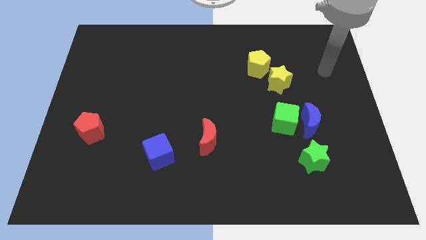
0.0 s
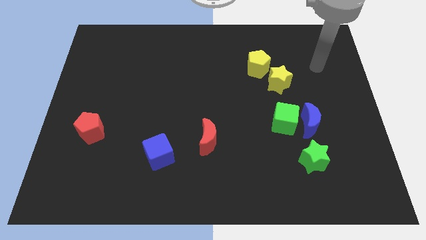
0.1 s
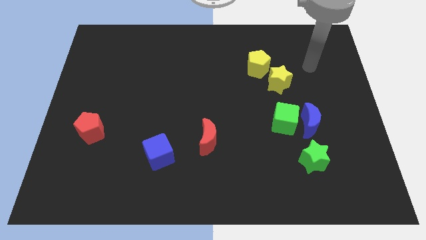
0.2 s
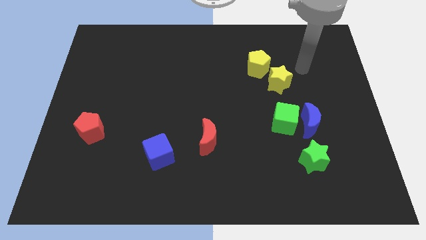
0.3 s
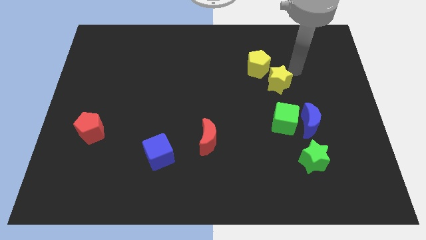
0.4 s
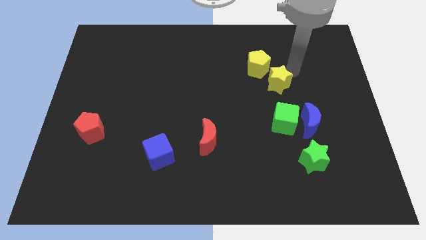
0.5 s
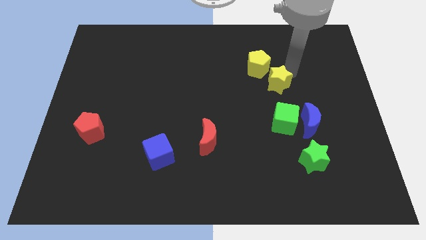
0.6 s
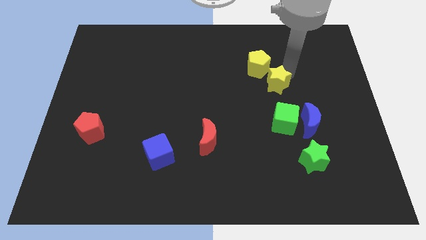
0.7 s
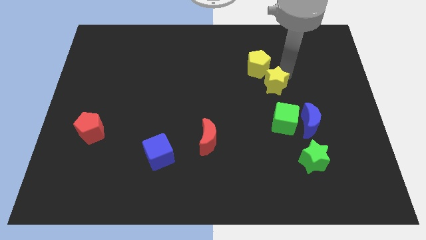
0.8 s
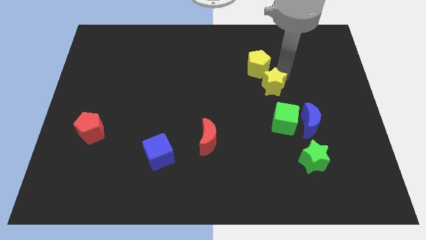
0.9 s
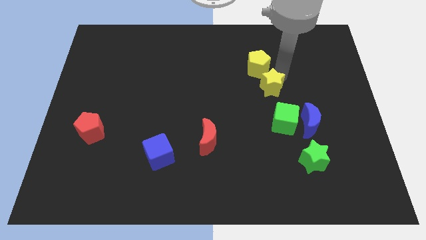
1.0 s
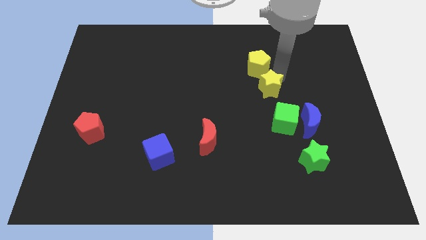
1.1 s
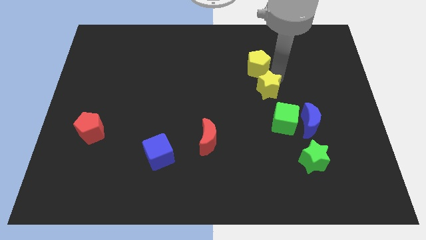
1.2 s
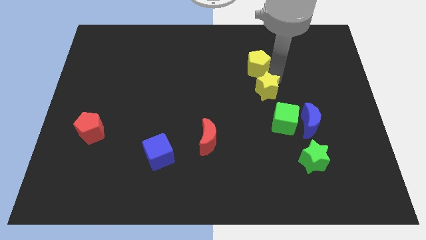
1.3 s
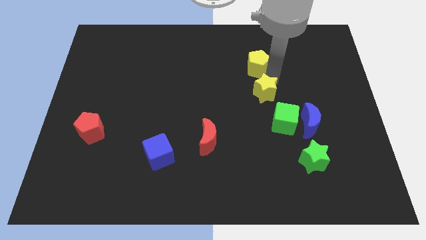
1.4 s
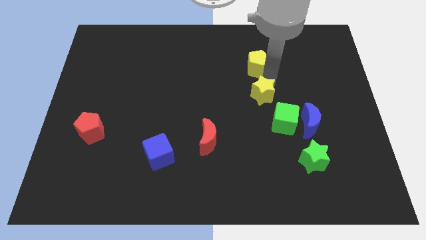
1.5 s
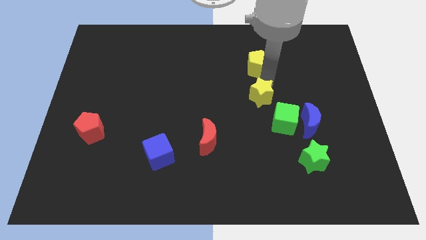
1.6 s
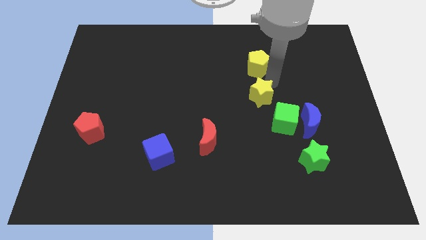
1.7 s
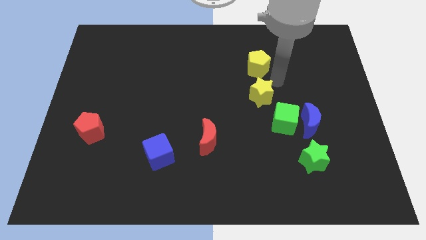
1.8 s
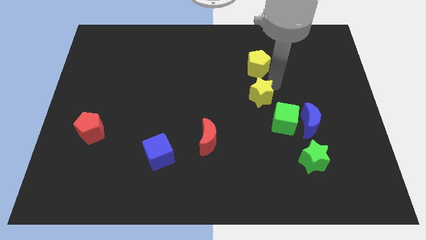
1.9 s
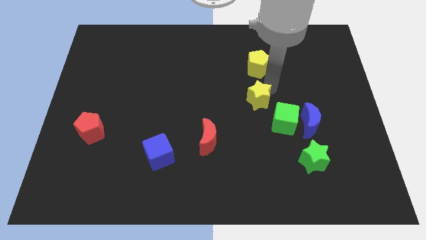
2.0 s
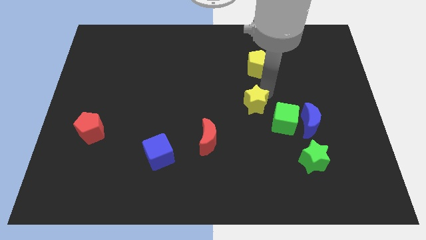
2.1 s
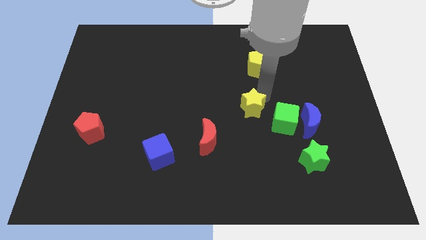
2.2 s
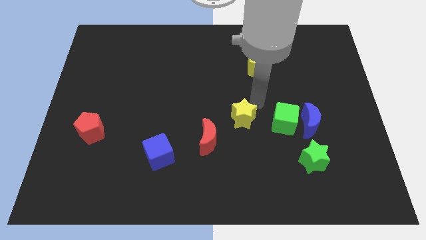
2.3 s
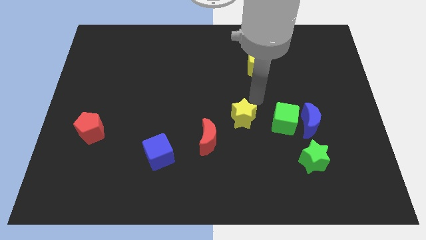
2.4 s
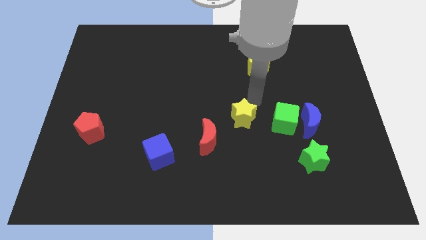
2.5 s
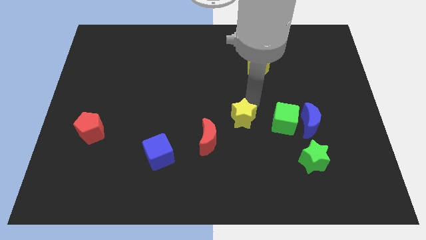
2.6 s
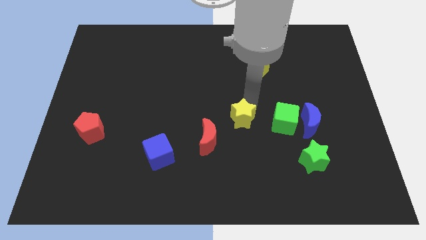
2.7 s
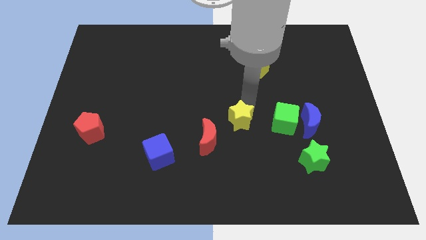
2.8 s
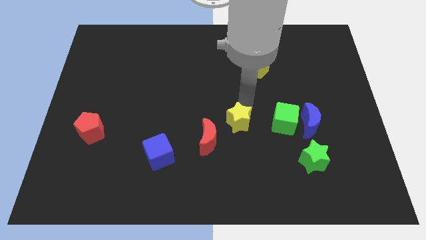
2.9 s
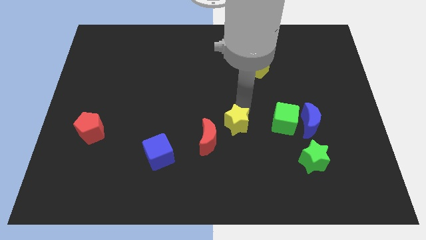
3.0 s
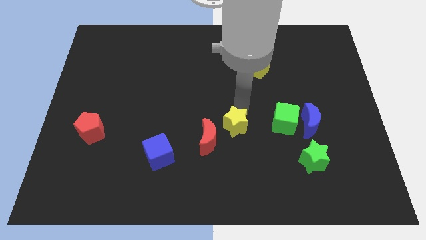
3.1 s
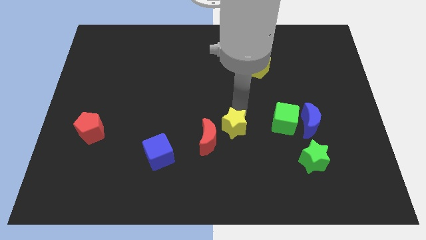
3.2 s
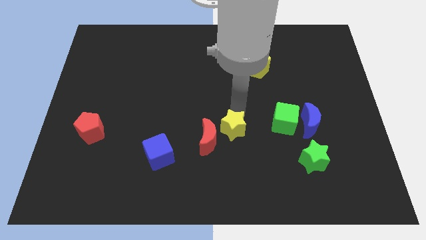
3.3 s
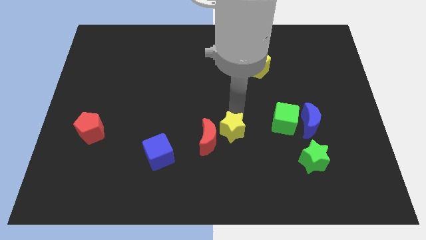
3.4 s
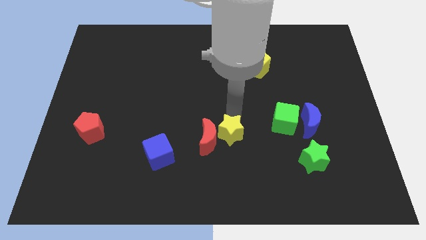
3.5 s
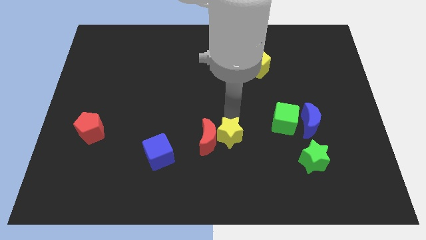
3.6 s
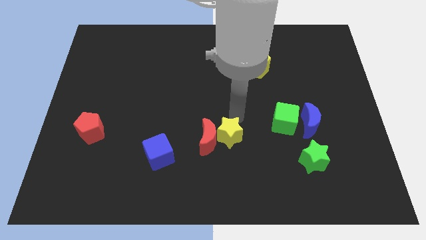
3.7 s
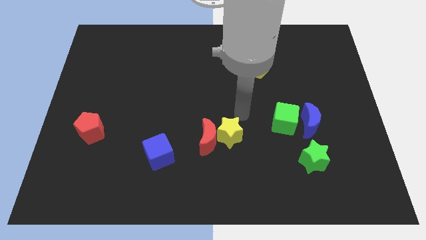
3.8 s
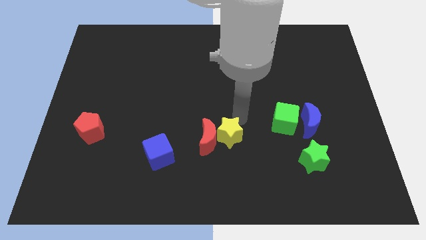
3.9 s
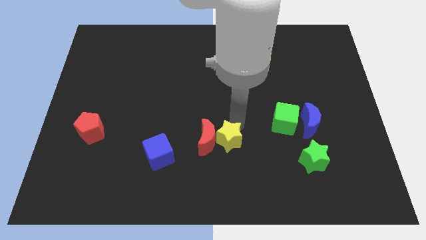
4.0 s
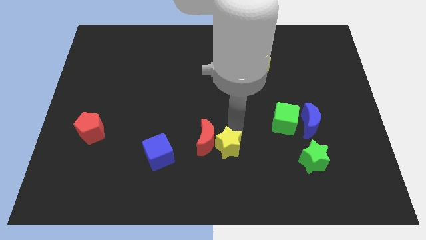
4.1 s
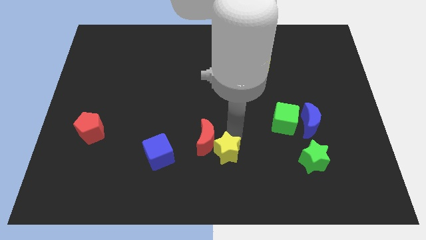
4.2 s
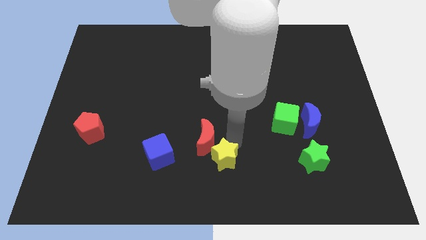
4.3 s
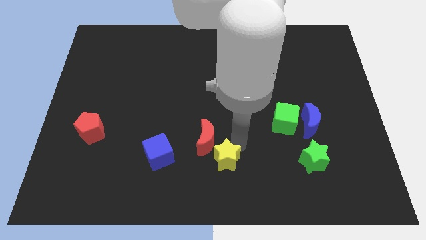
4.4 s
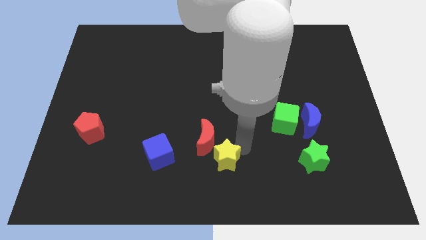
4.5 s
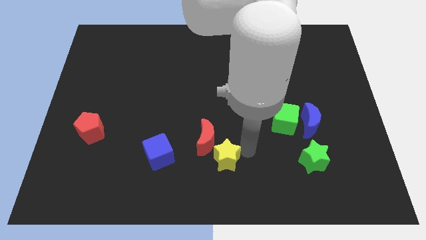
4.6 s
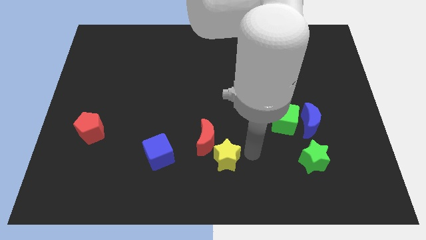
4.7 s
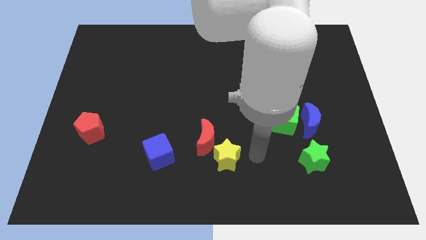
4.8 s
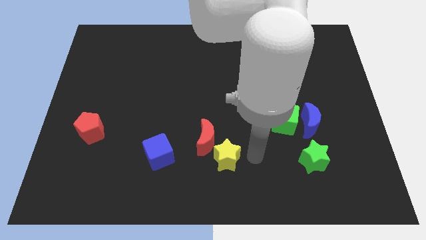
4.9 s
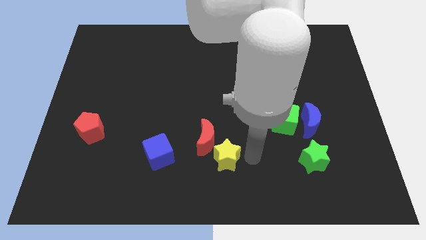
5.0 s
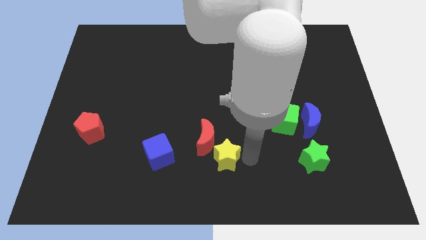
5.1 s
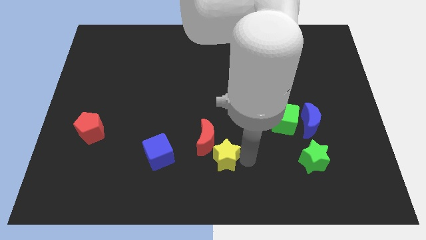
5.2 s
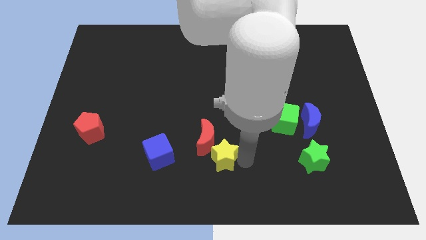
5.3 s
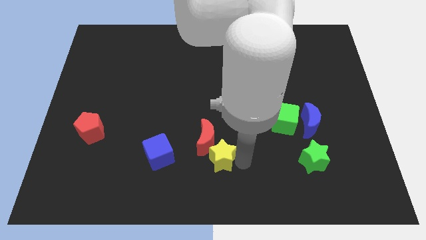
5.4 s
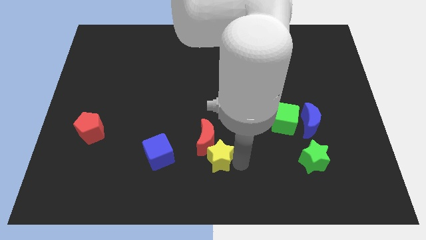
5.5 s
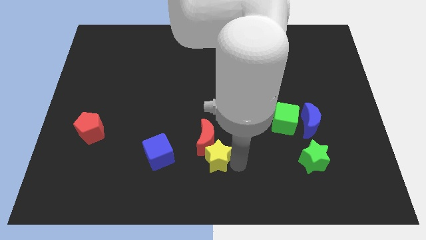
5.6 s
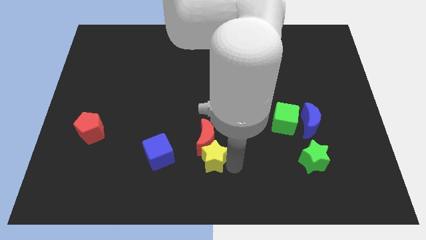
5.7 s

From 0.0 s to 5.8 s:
push the yellow star diagonally down and to the left of the red moon

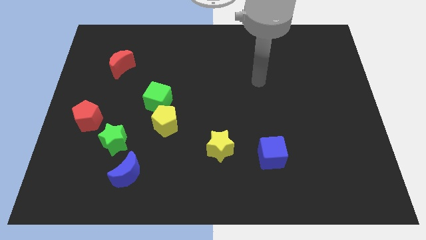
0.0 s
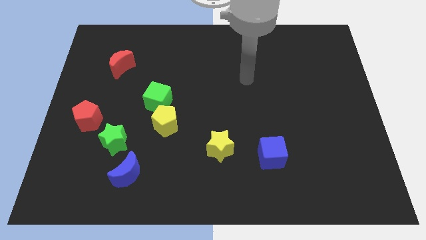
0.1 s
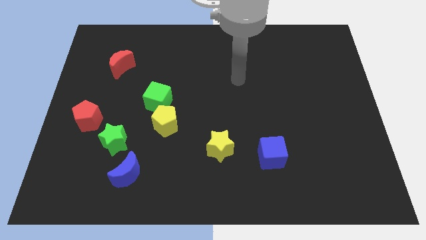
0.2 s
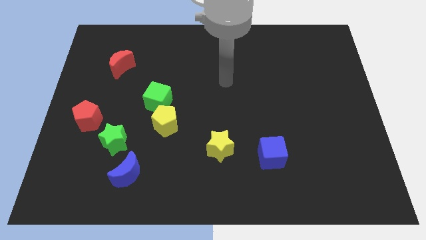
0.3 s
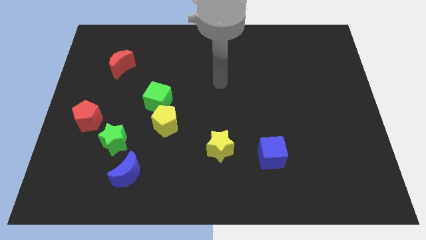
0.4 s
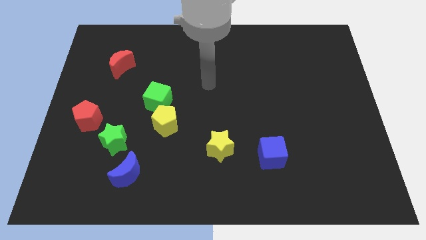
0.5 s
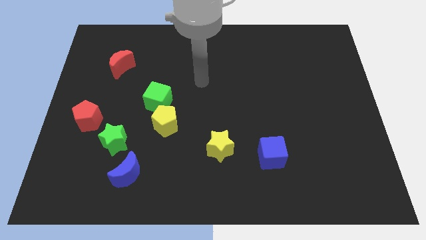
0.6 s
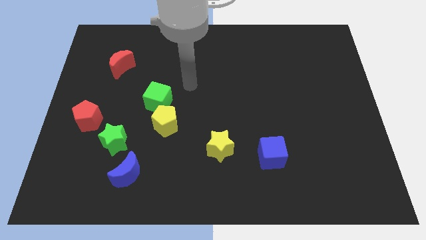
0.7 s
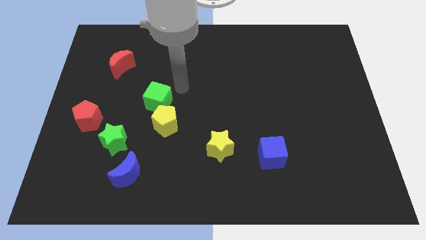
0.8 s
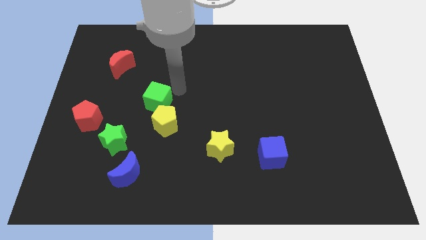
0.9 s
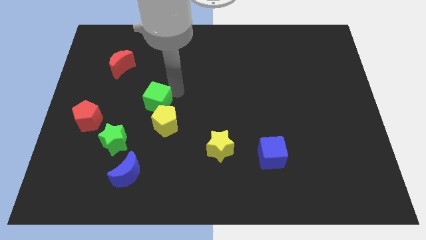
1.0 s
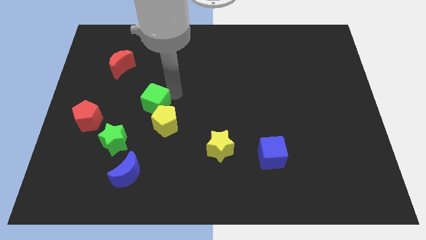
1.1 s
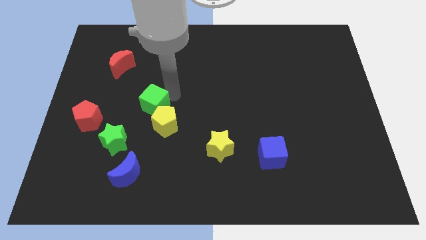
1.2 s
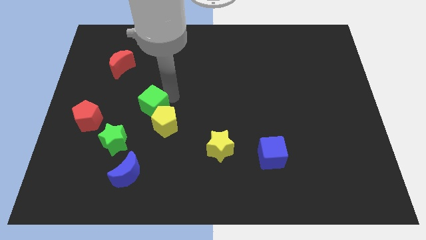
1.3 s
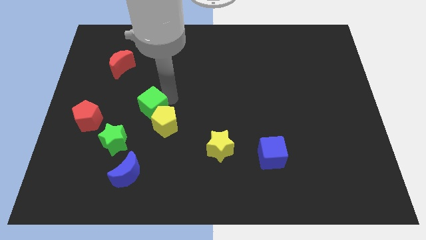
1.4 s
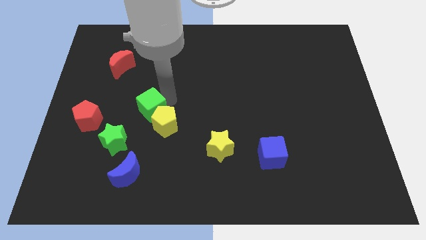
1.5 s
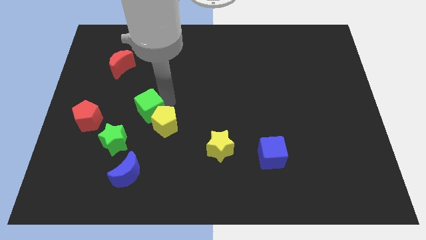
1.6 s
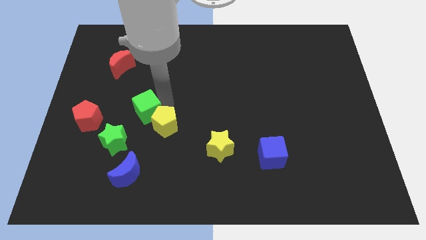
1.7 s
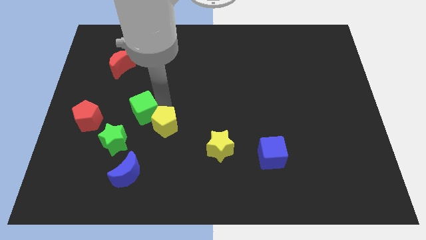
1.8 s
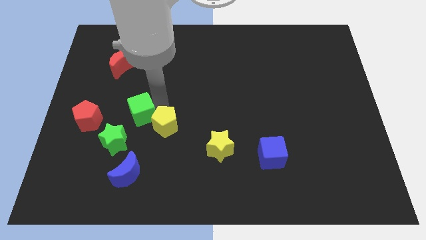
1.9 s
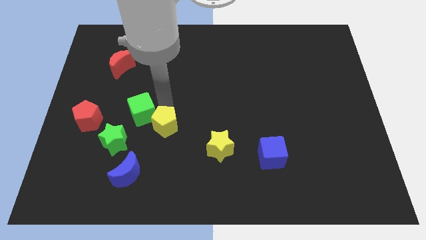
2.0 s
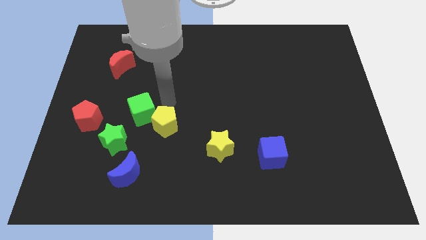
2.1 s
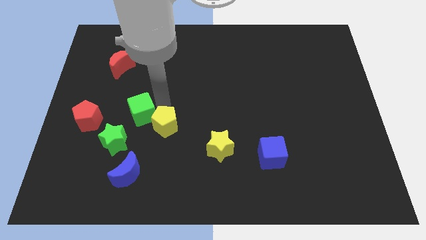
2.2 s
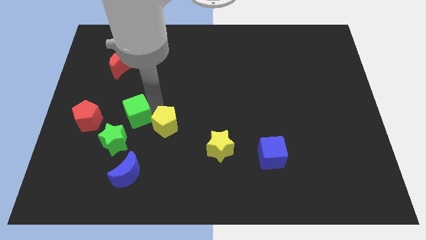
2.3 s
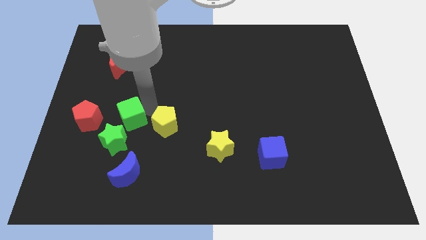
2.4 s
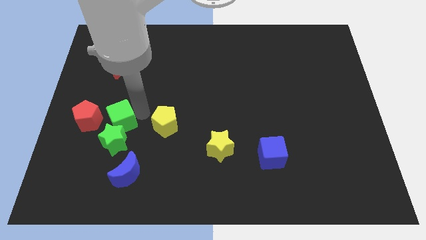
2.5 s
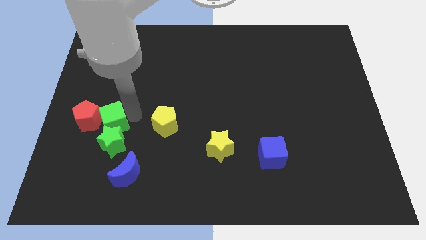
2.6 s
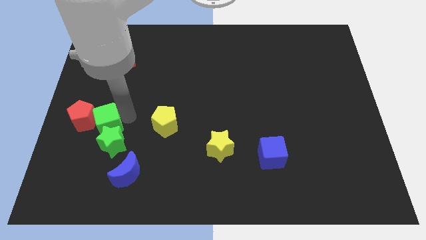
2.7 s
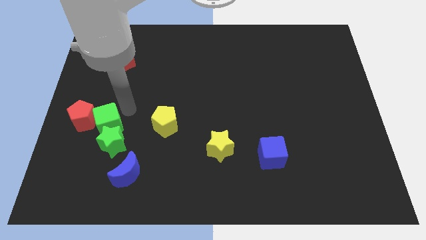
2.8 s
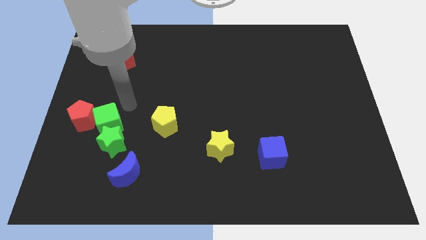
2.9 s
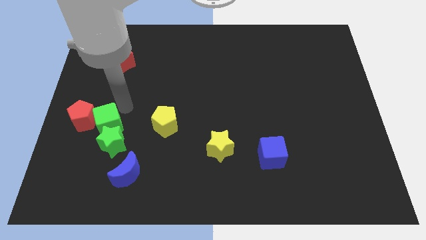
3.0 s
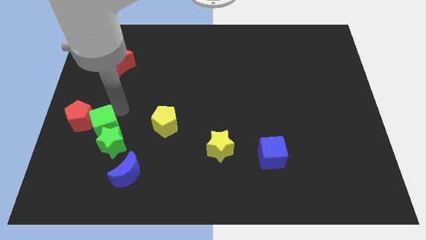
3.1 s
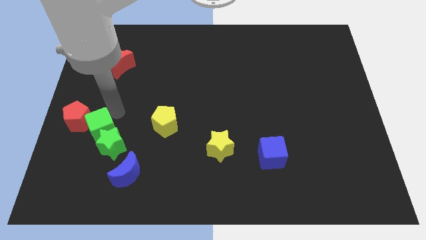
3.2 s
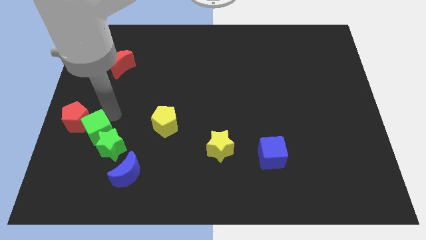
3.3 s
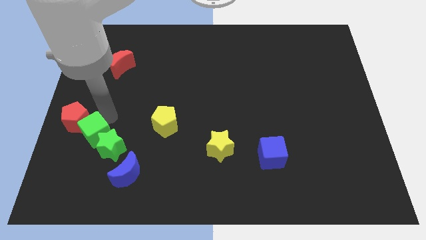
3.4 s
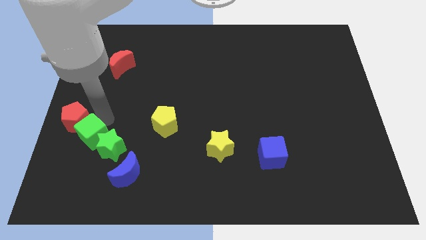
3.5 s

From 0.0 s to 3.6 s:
move the green cube to the bottom of the red pentagon
